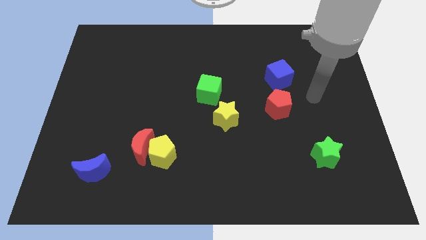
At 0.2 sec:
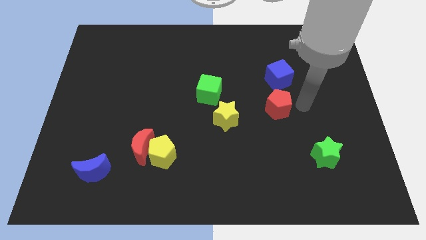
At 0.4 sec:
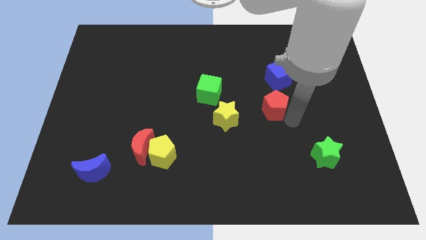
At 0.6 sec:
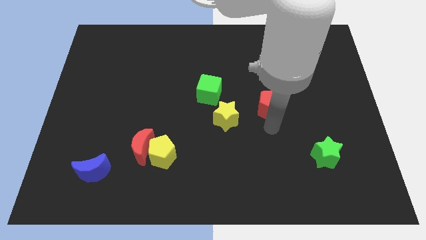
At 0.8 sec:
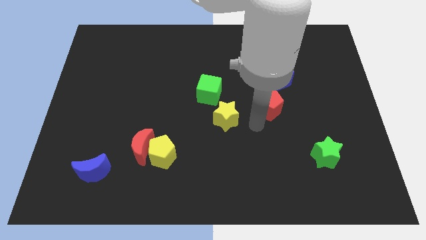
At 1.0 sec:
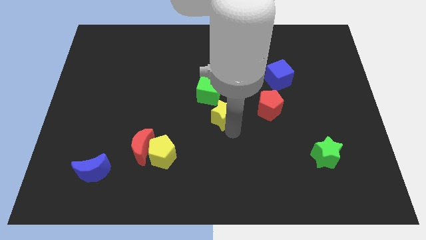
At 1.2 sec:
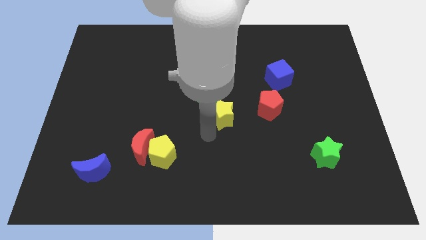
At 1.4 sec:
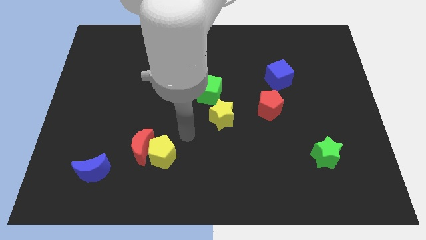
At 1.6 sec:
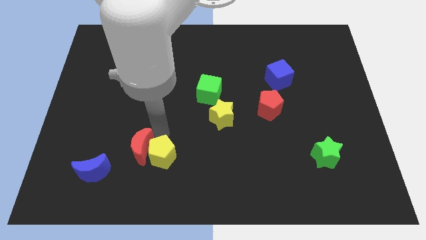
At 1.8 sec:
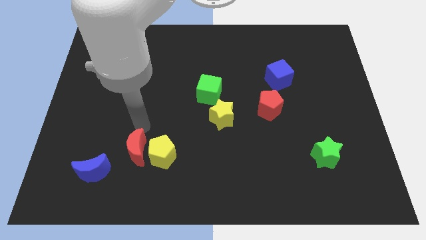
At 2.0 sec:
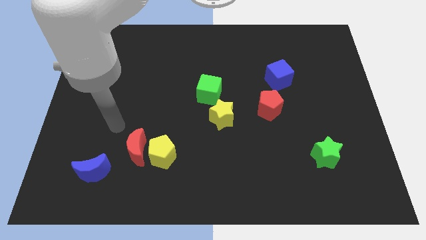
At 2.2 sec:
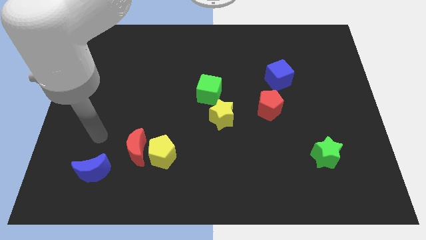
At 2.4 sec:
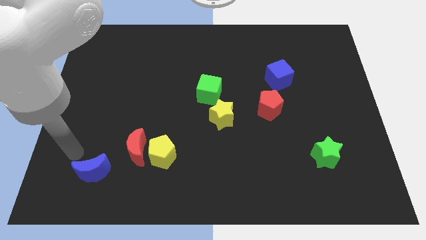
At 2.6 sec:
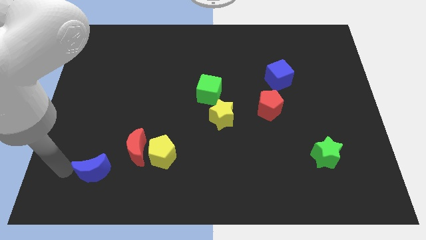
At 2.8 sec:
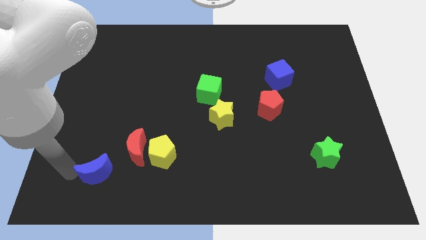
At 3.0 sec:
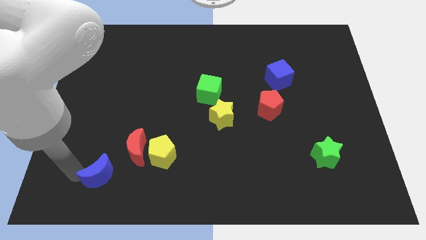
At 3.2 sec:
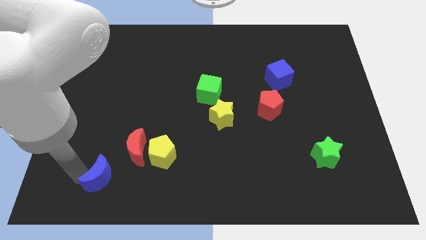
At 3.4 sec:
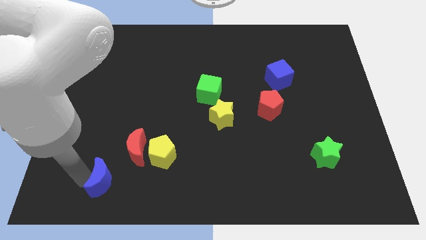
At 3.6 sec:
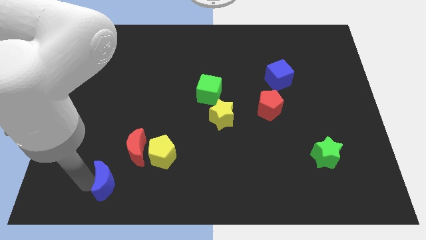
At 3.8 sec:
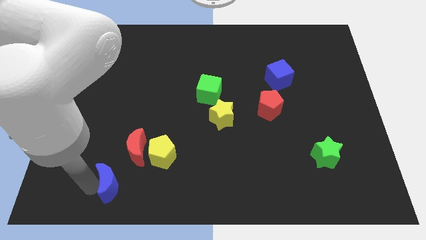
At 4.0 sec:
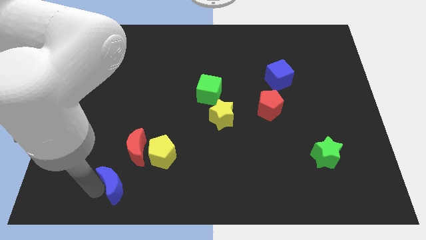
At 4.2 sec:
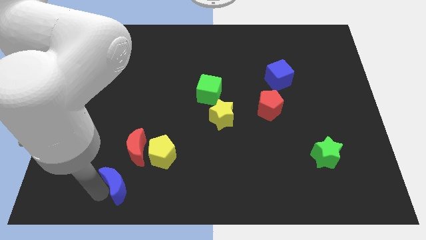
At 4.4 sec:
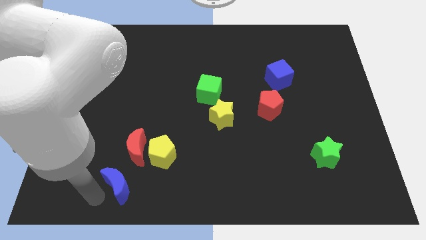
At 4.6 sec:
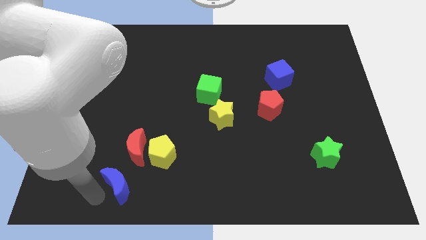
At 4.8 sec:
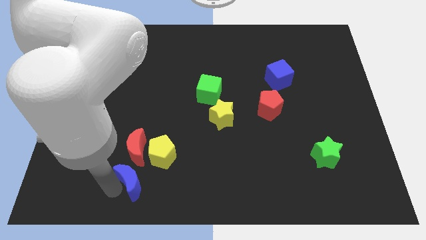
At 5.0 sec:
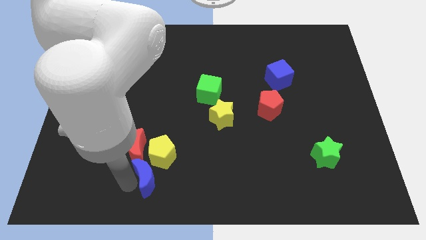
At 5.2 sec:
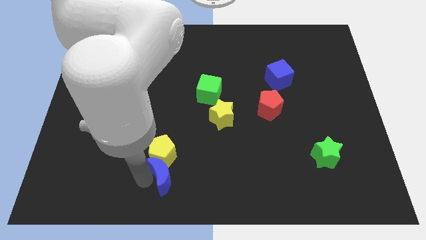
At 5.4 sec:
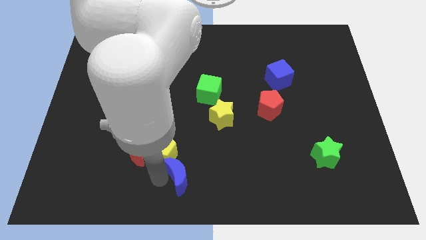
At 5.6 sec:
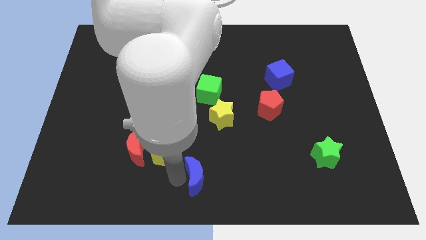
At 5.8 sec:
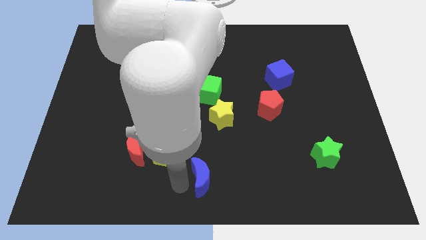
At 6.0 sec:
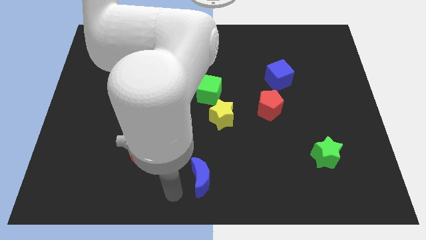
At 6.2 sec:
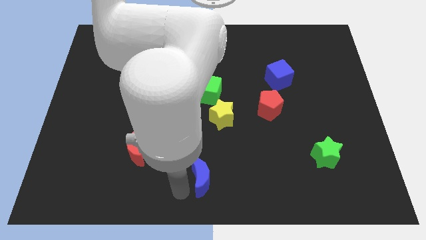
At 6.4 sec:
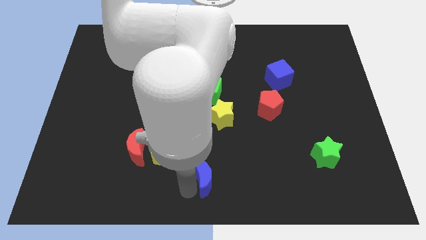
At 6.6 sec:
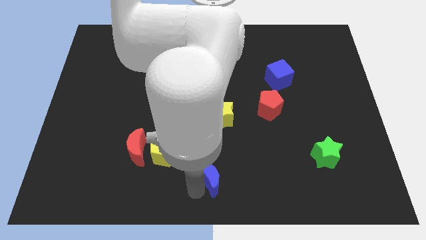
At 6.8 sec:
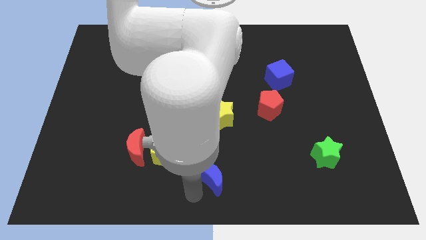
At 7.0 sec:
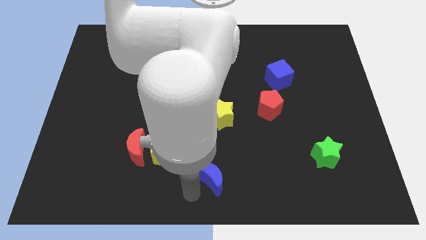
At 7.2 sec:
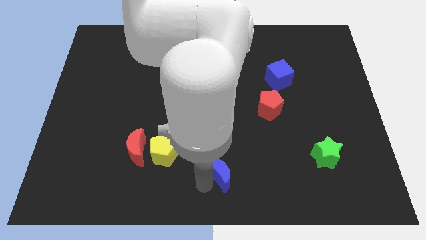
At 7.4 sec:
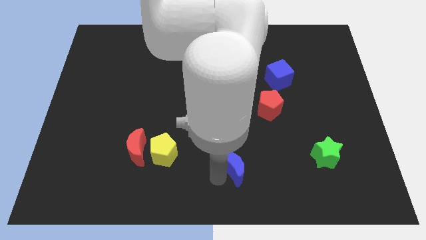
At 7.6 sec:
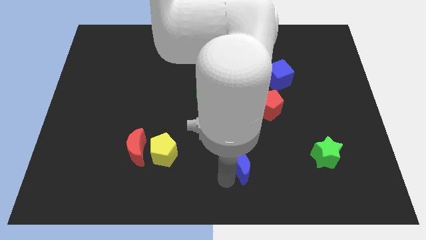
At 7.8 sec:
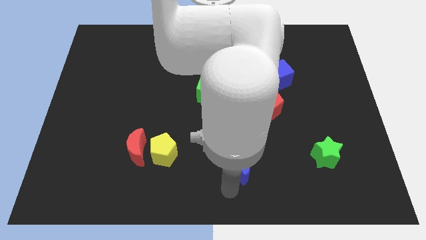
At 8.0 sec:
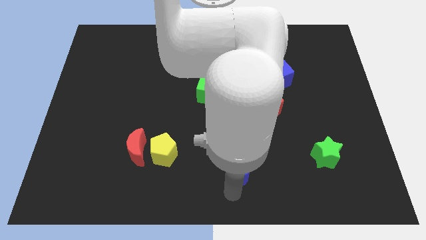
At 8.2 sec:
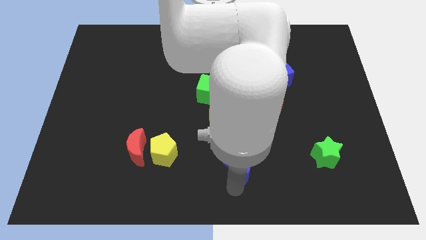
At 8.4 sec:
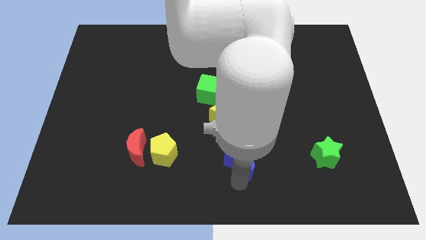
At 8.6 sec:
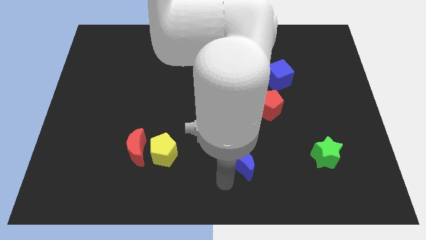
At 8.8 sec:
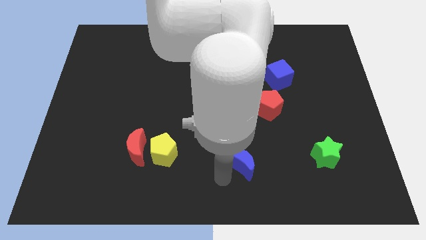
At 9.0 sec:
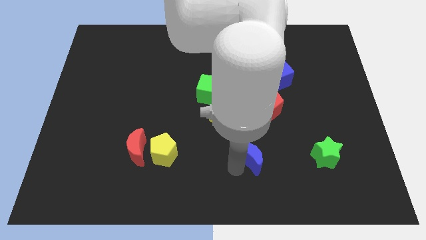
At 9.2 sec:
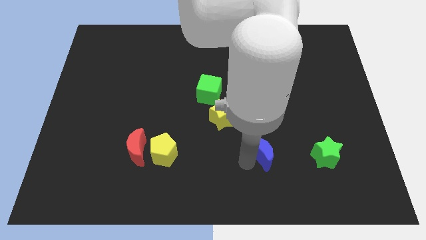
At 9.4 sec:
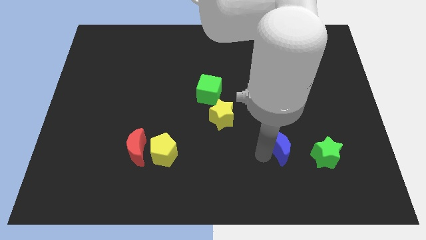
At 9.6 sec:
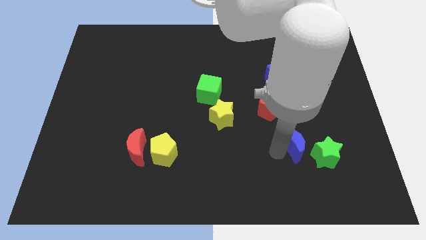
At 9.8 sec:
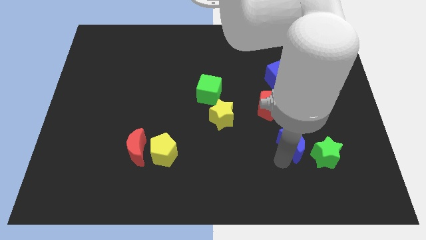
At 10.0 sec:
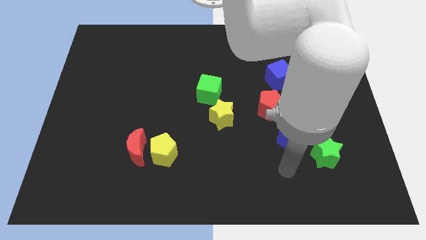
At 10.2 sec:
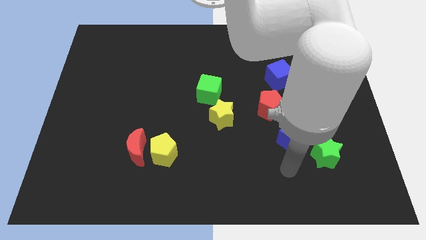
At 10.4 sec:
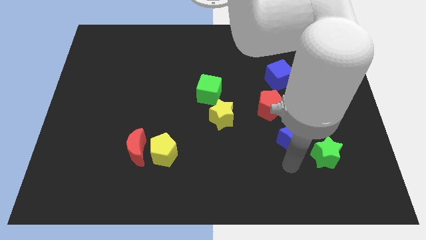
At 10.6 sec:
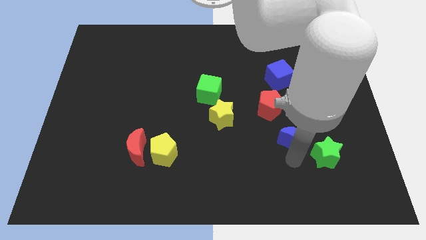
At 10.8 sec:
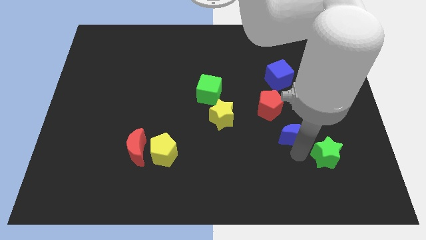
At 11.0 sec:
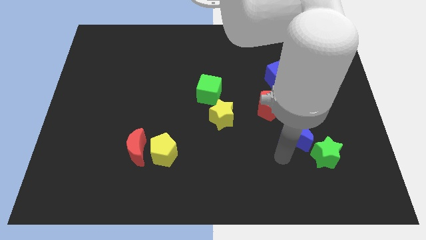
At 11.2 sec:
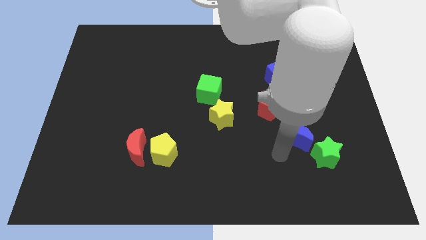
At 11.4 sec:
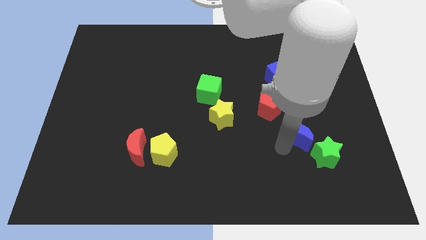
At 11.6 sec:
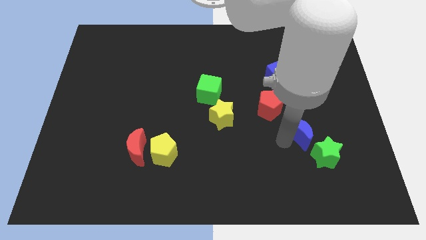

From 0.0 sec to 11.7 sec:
push the blue moon to the top of the green star
